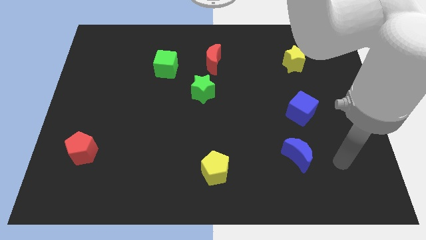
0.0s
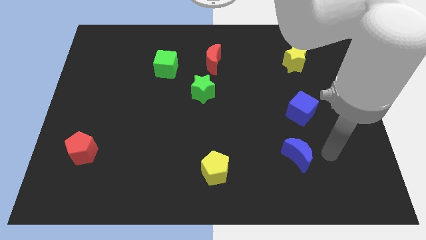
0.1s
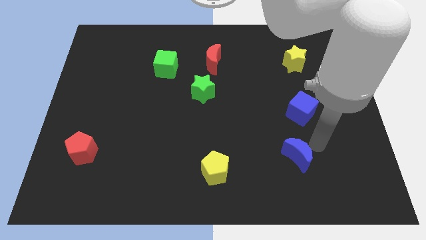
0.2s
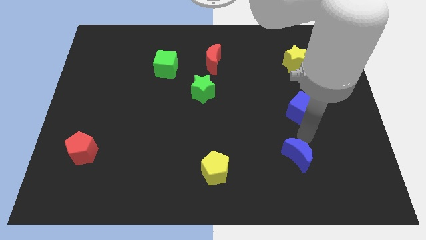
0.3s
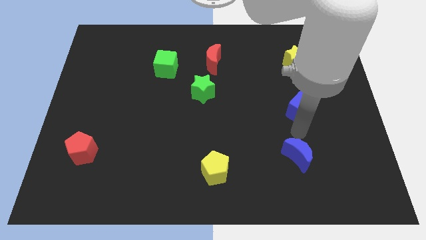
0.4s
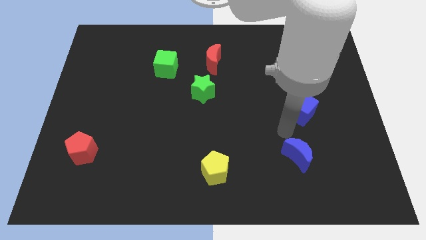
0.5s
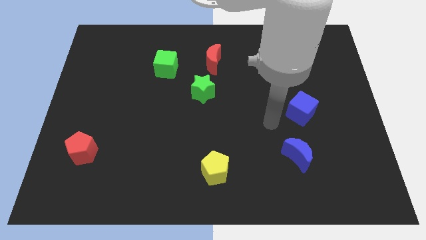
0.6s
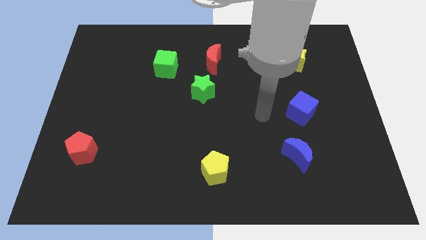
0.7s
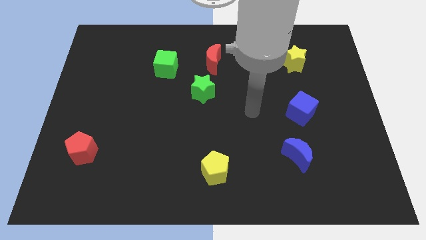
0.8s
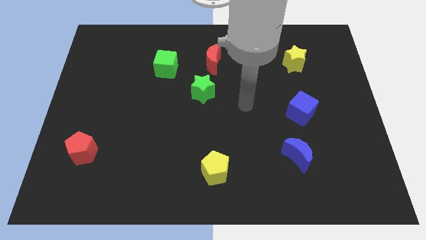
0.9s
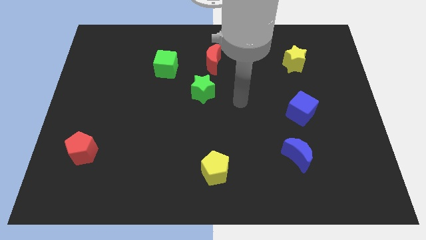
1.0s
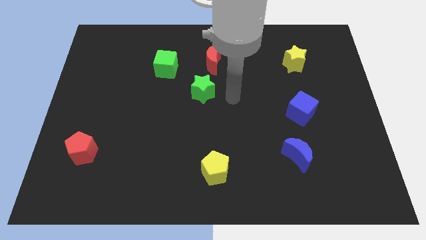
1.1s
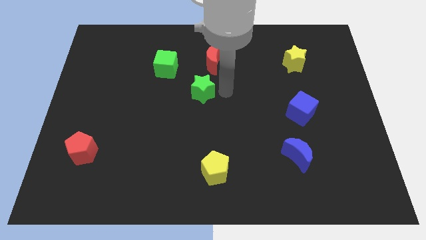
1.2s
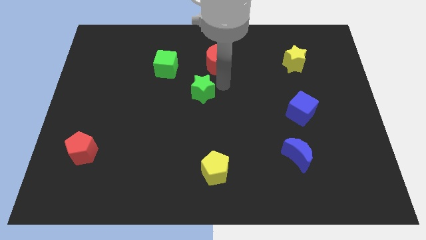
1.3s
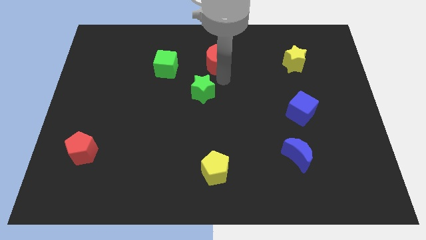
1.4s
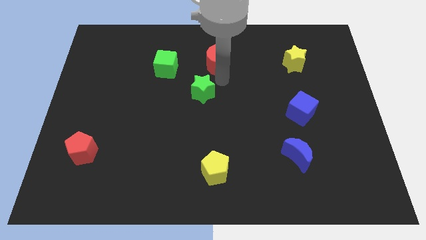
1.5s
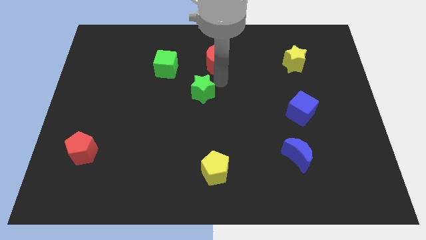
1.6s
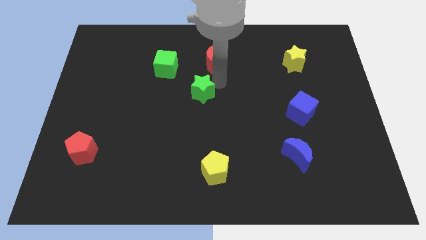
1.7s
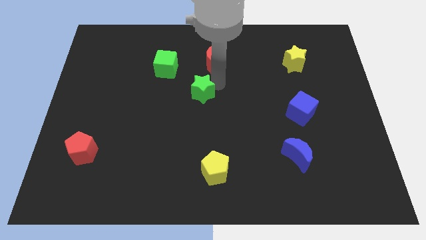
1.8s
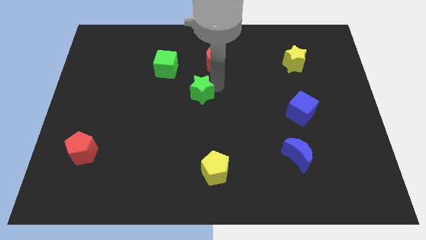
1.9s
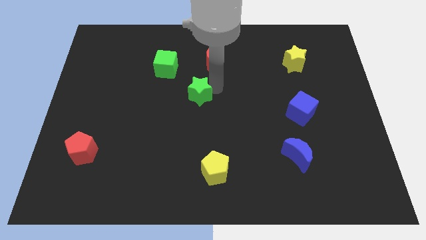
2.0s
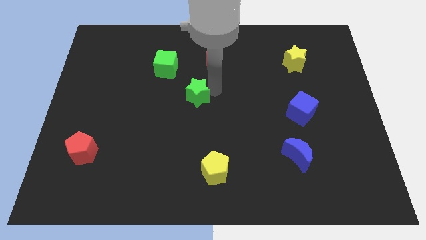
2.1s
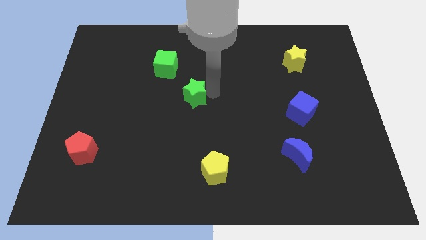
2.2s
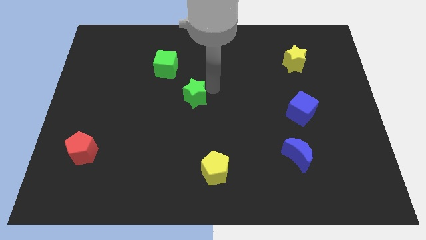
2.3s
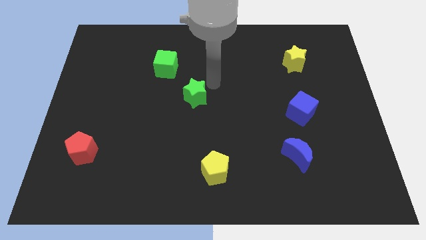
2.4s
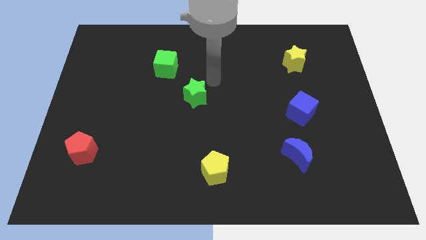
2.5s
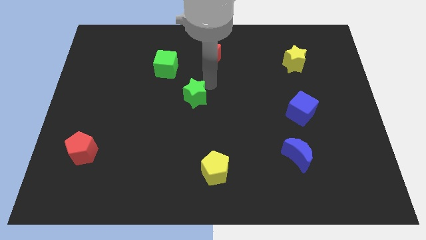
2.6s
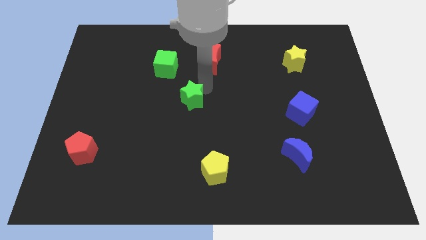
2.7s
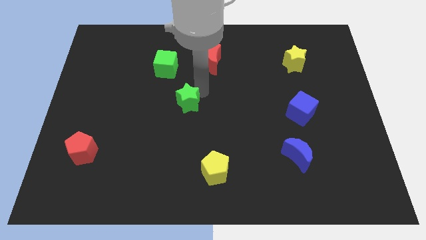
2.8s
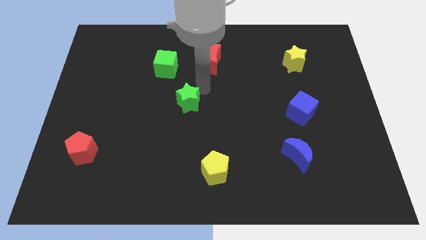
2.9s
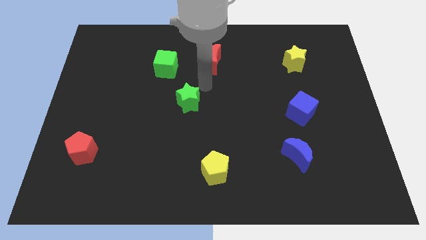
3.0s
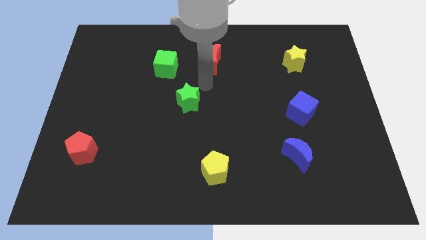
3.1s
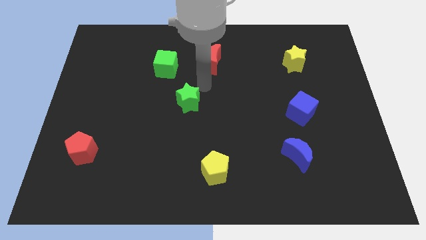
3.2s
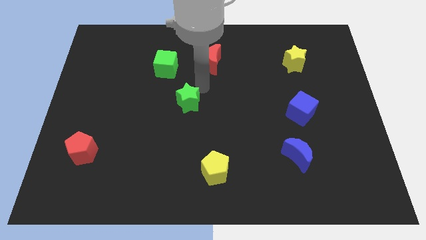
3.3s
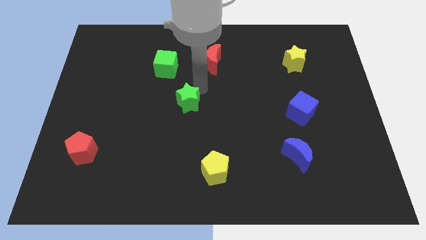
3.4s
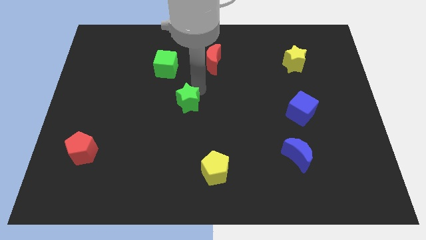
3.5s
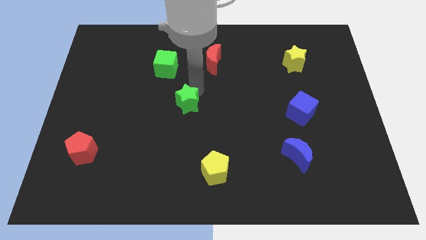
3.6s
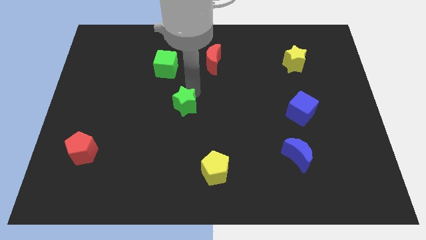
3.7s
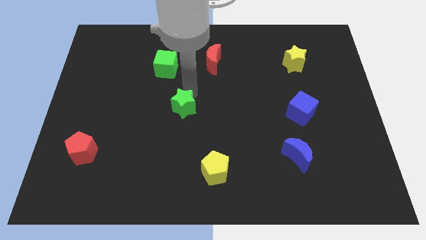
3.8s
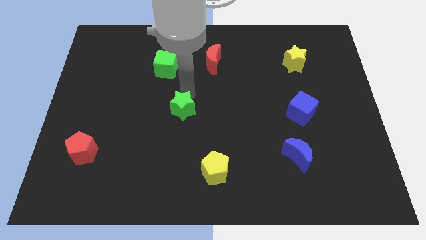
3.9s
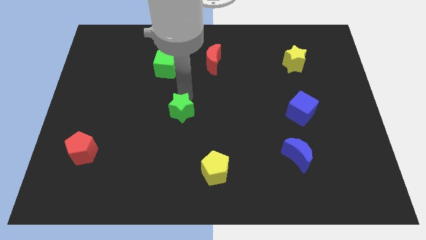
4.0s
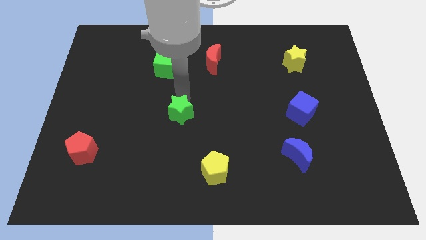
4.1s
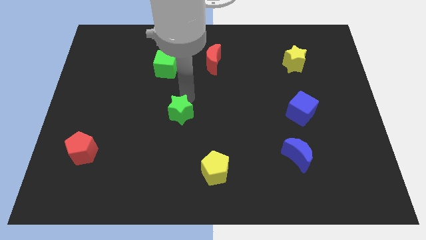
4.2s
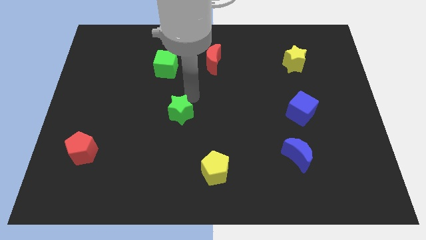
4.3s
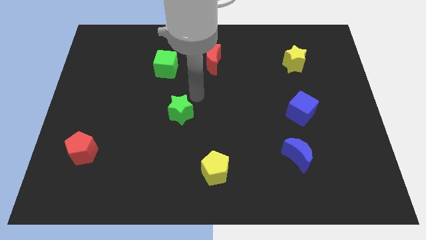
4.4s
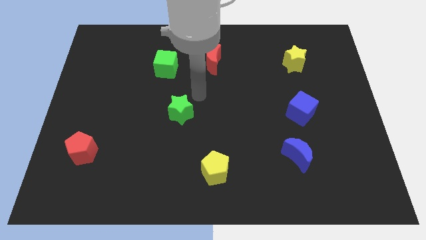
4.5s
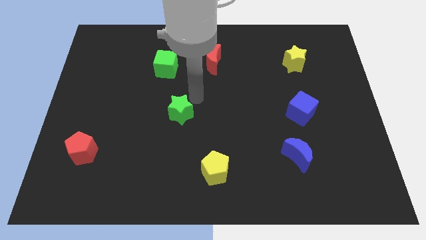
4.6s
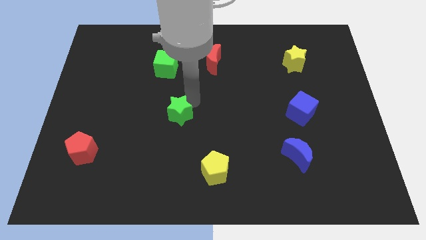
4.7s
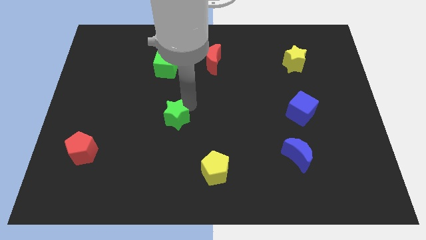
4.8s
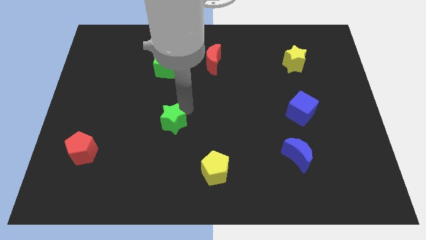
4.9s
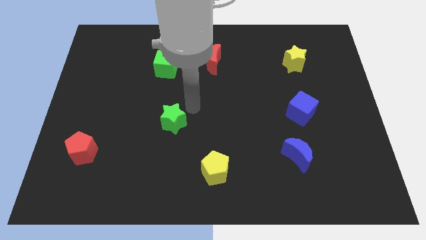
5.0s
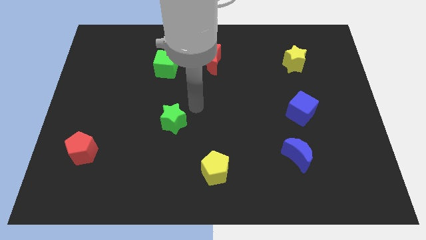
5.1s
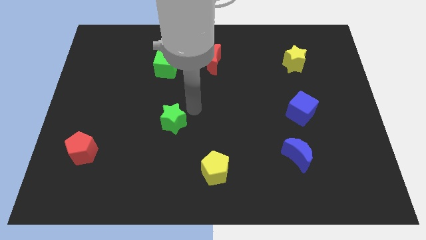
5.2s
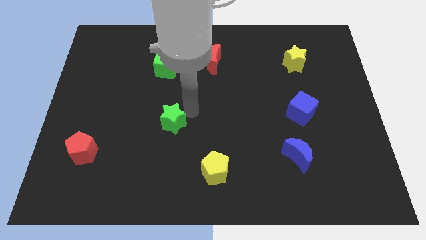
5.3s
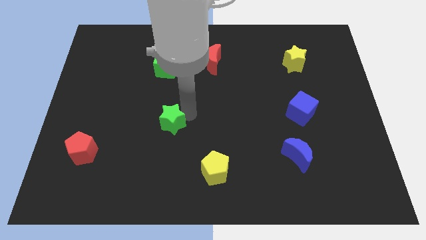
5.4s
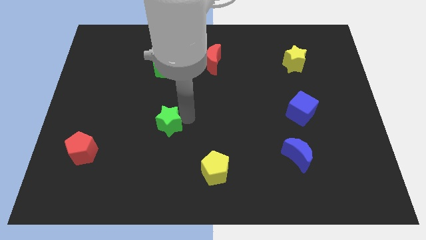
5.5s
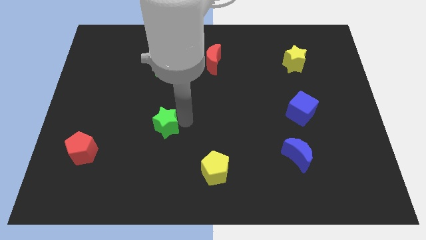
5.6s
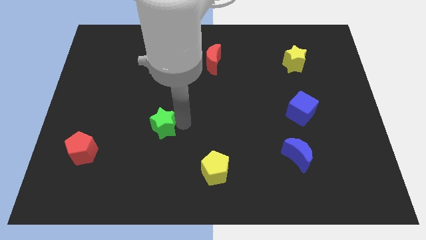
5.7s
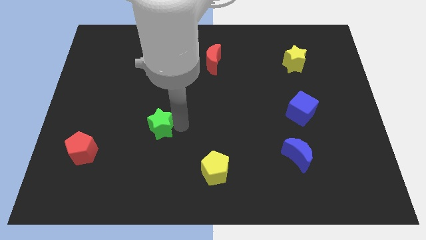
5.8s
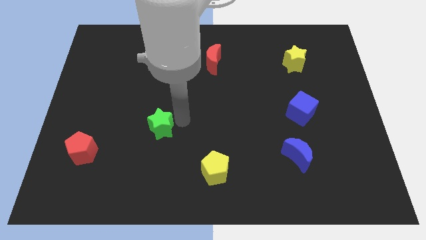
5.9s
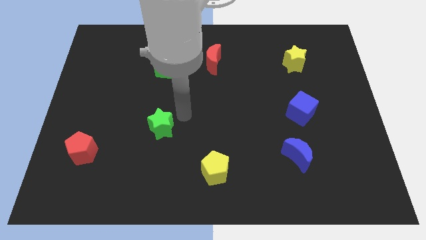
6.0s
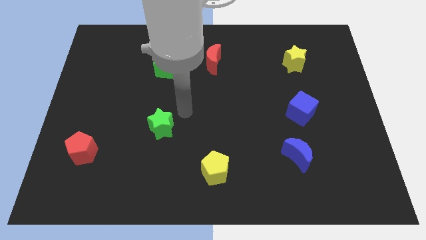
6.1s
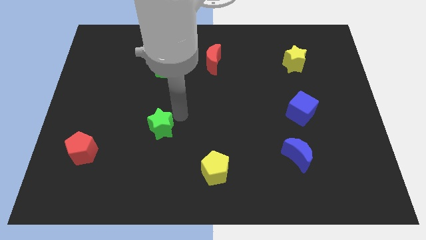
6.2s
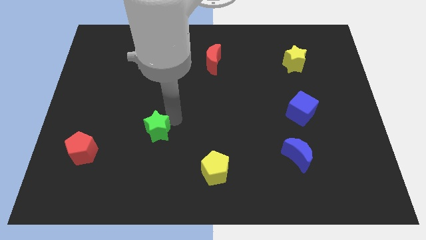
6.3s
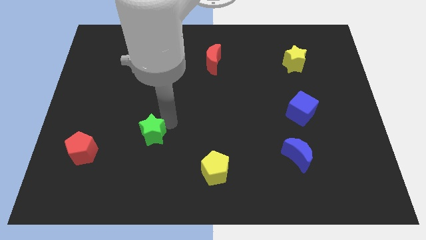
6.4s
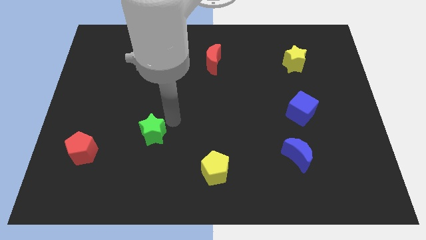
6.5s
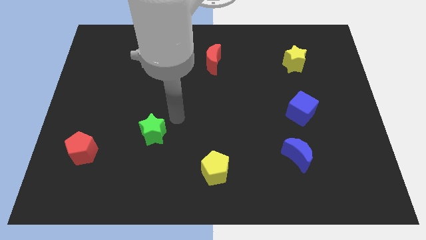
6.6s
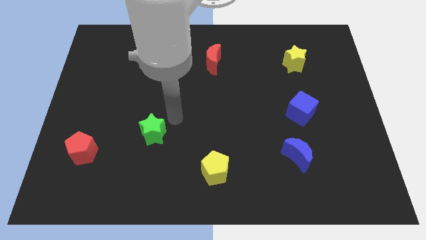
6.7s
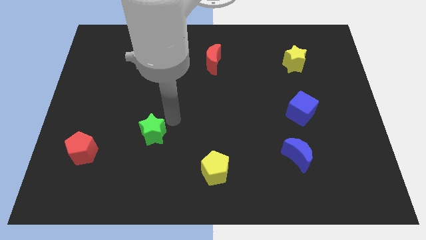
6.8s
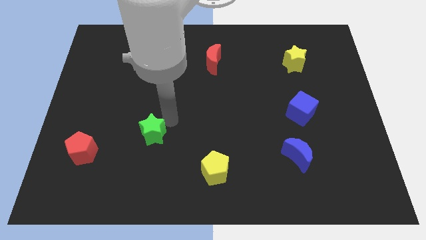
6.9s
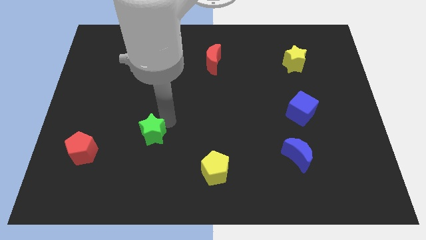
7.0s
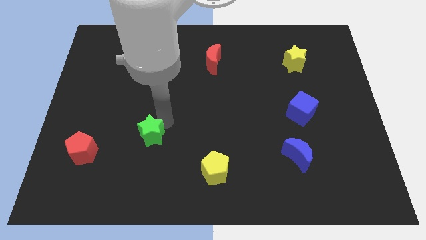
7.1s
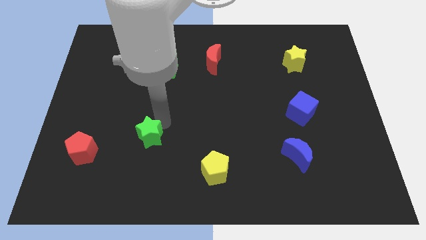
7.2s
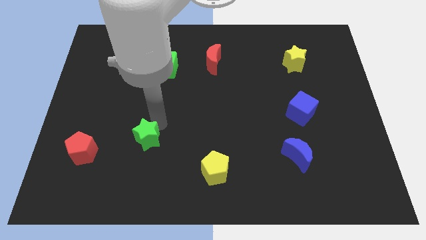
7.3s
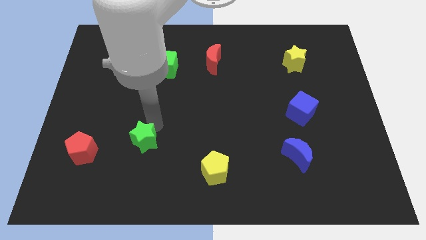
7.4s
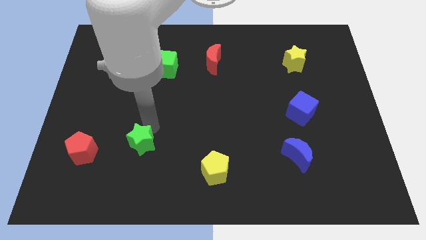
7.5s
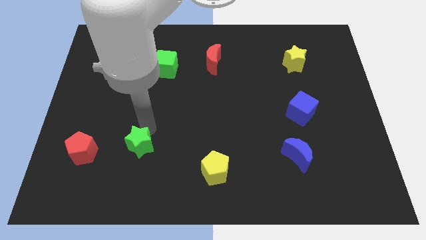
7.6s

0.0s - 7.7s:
push the green star down and then to the left

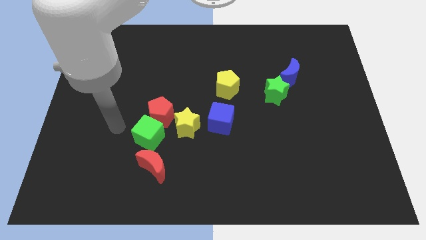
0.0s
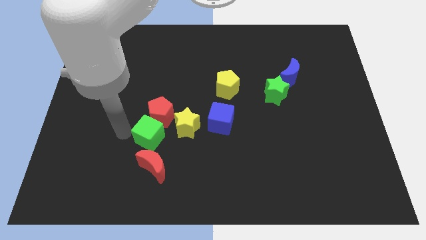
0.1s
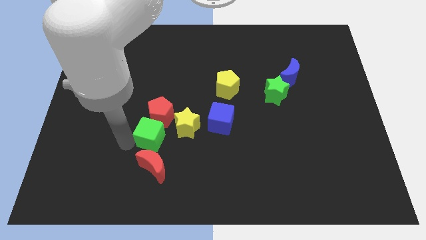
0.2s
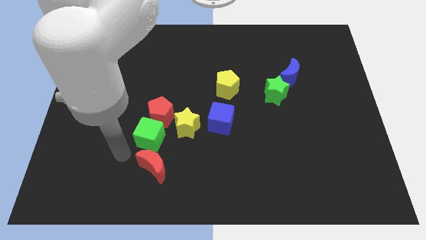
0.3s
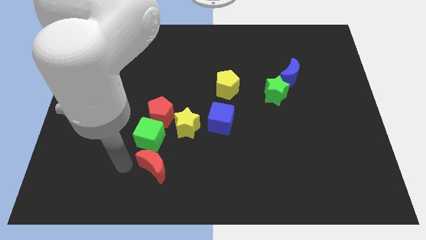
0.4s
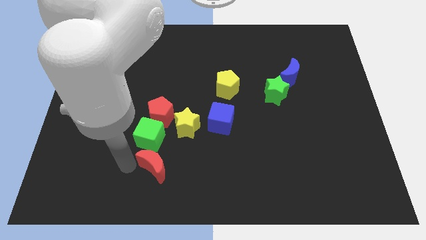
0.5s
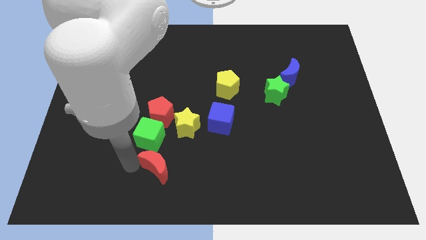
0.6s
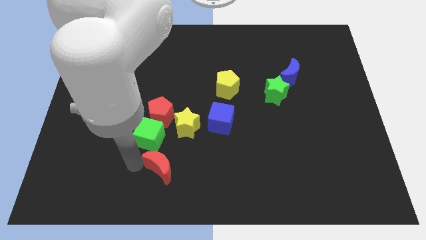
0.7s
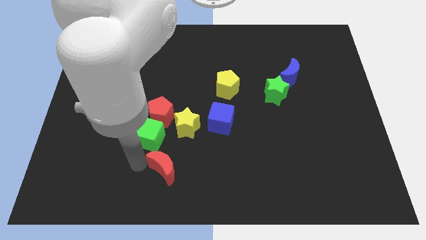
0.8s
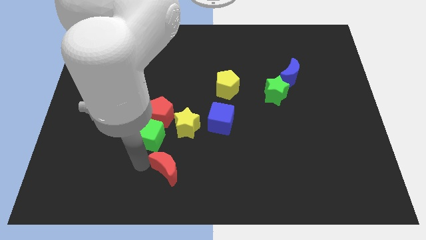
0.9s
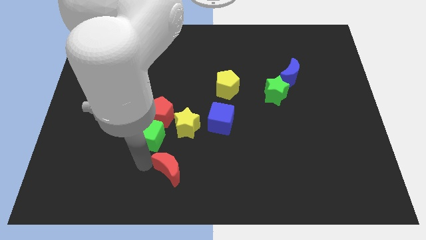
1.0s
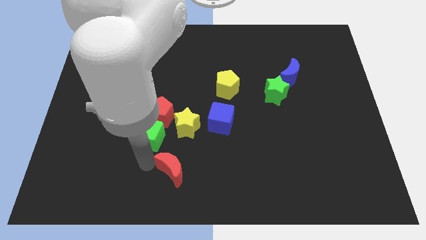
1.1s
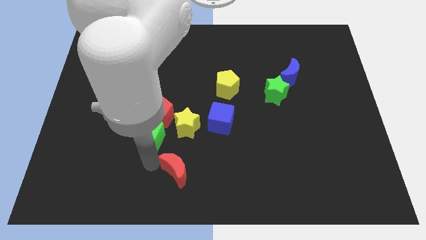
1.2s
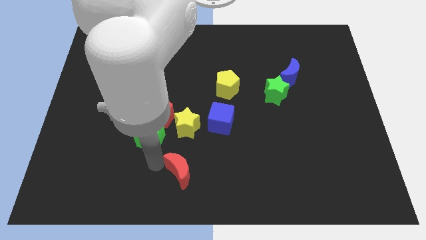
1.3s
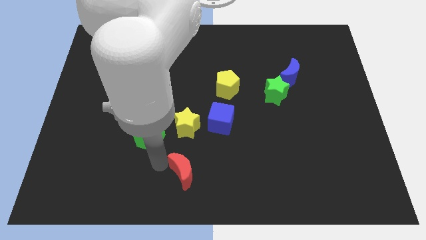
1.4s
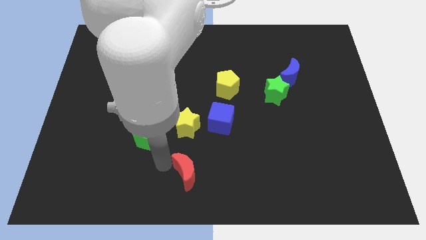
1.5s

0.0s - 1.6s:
push the red moon right a bit
